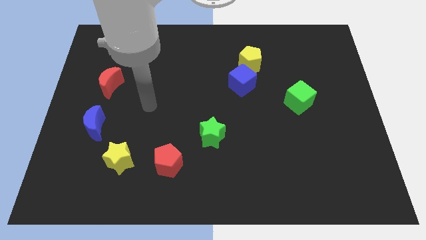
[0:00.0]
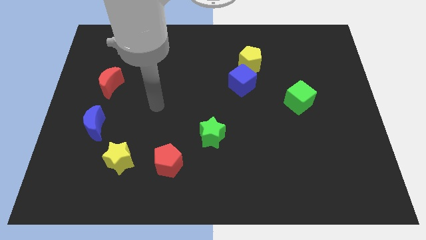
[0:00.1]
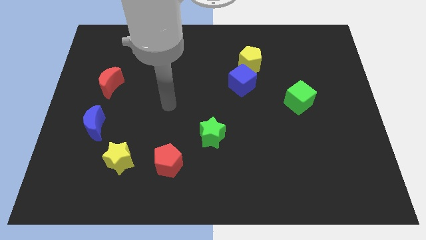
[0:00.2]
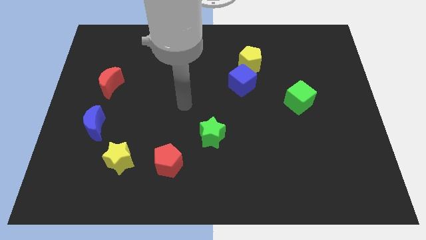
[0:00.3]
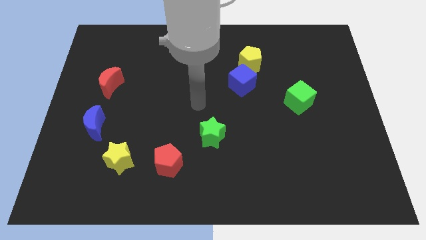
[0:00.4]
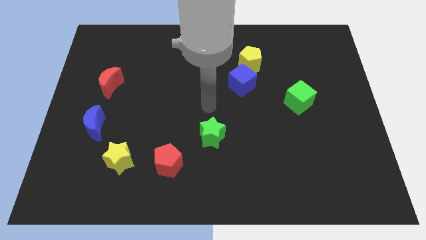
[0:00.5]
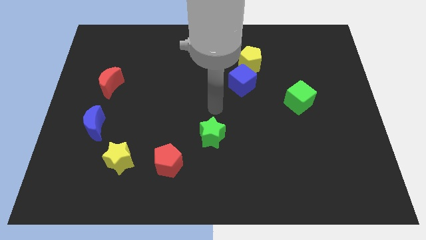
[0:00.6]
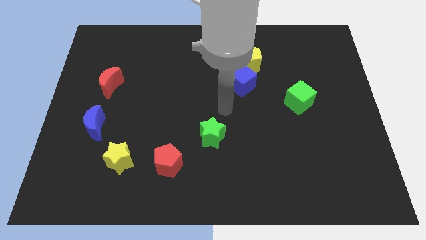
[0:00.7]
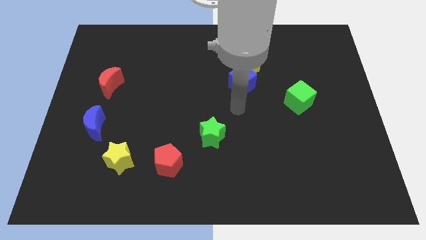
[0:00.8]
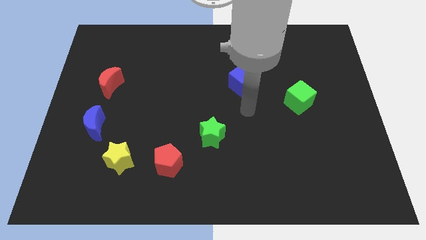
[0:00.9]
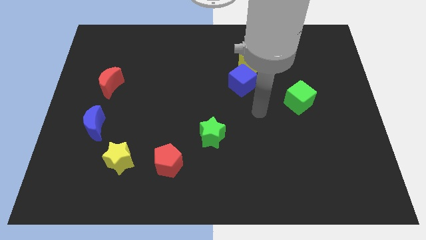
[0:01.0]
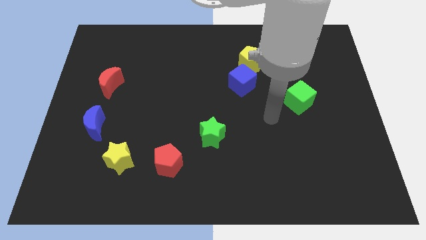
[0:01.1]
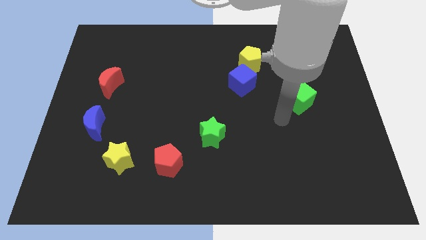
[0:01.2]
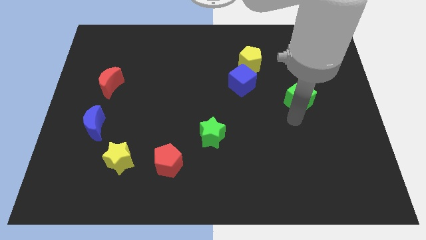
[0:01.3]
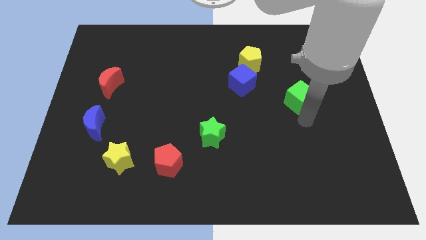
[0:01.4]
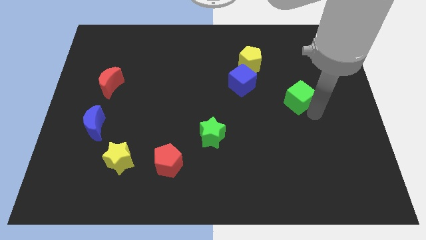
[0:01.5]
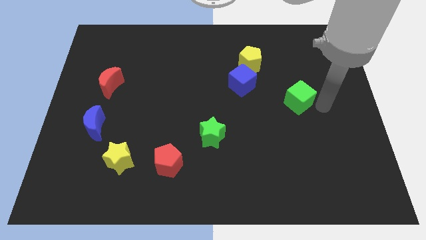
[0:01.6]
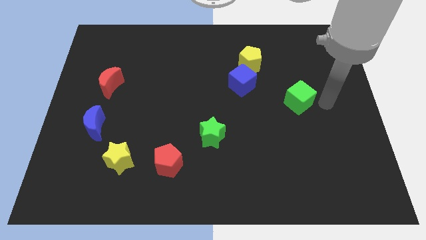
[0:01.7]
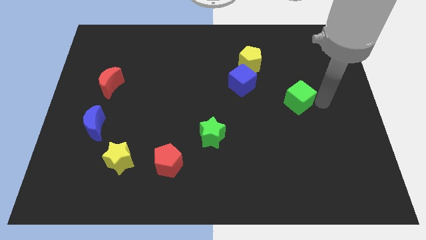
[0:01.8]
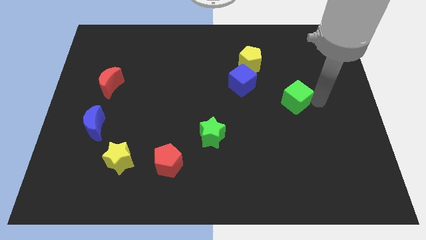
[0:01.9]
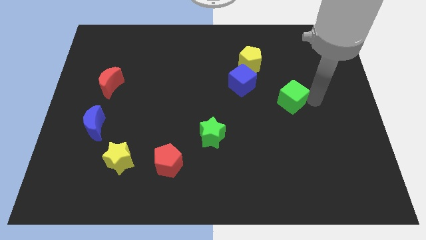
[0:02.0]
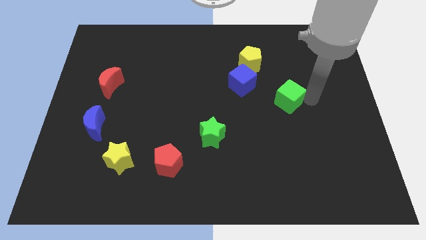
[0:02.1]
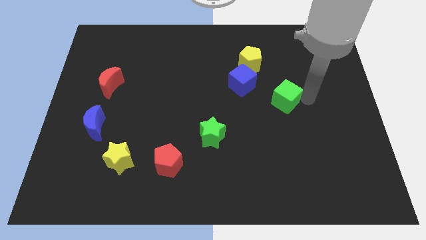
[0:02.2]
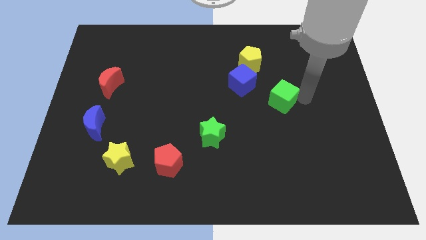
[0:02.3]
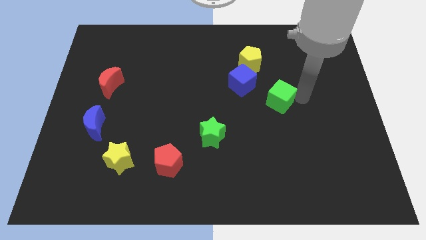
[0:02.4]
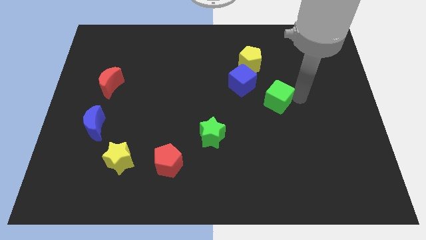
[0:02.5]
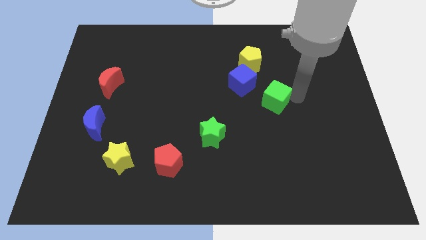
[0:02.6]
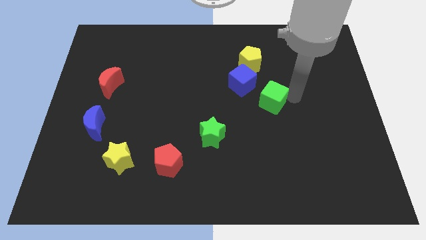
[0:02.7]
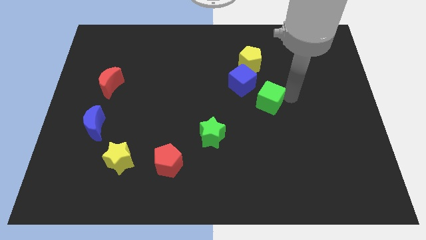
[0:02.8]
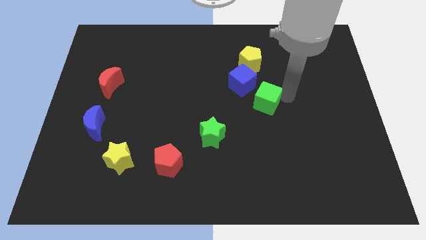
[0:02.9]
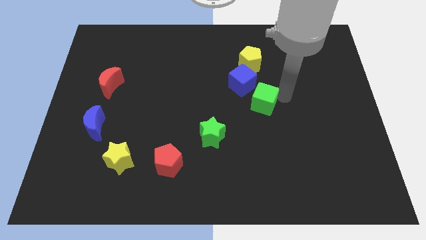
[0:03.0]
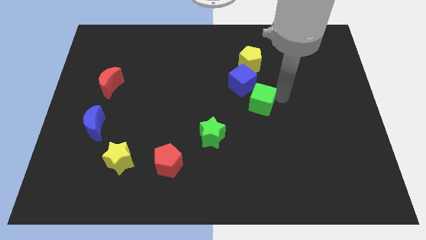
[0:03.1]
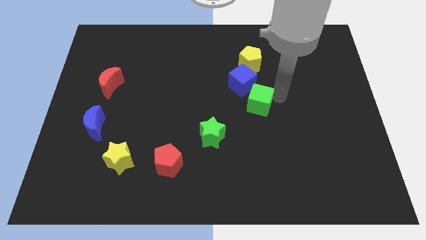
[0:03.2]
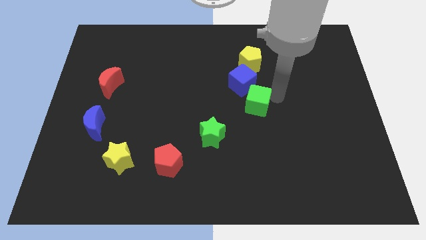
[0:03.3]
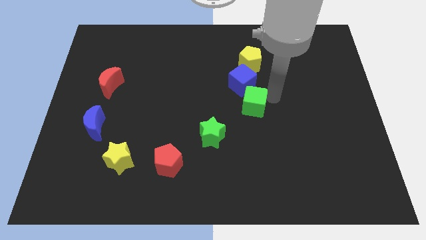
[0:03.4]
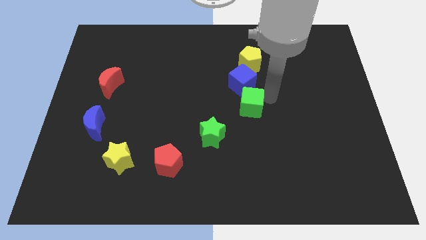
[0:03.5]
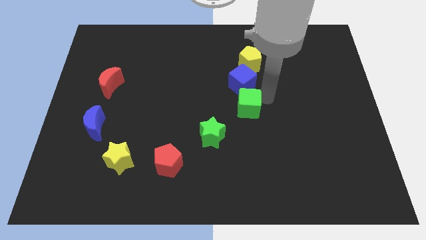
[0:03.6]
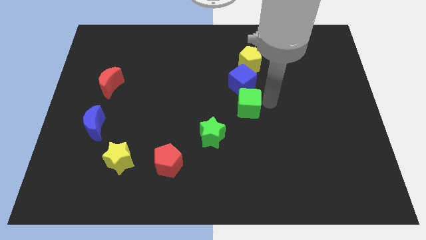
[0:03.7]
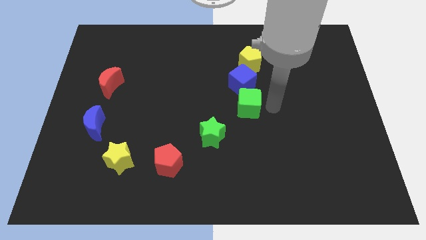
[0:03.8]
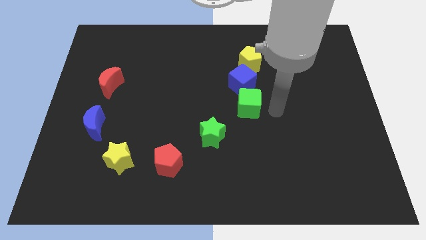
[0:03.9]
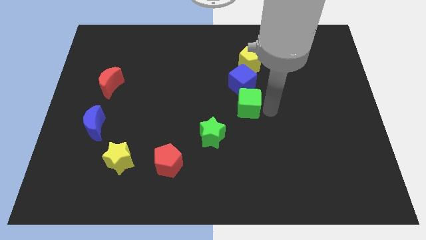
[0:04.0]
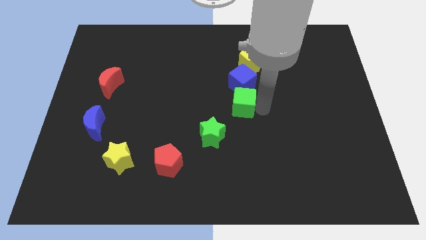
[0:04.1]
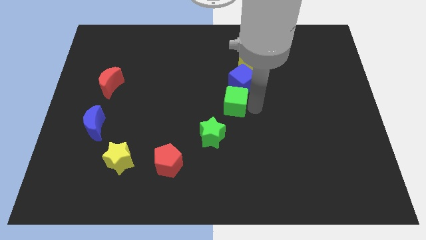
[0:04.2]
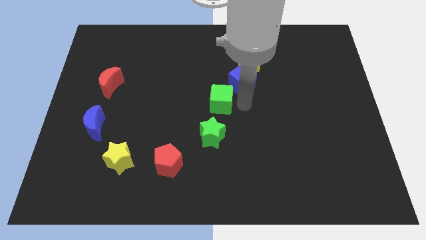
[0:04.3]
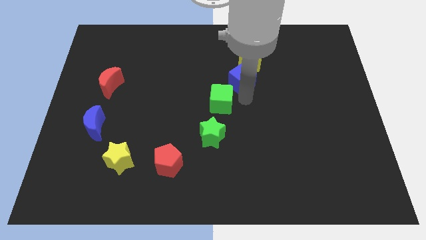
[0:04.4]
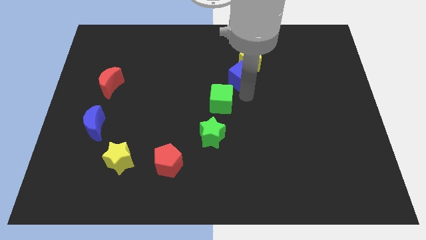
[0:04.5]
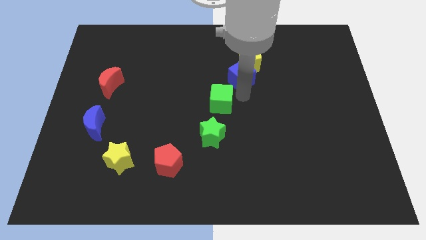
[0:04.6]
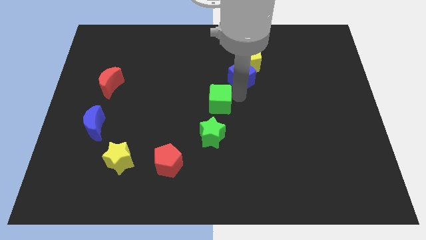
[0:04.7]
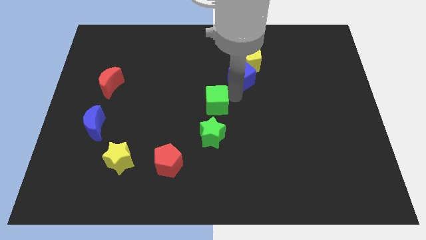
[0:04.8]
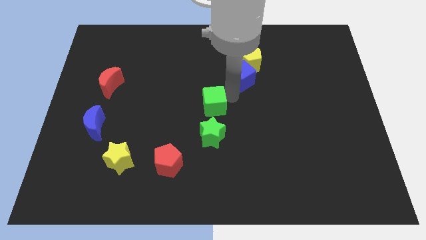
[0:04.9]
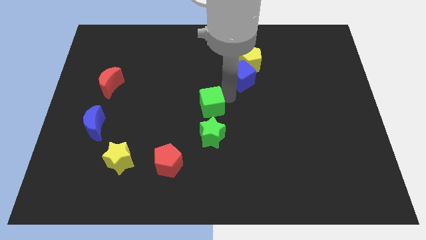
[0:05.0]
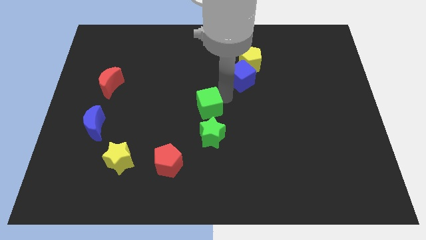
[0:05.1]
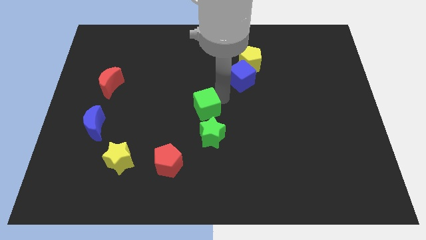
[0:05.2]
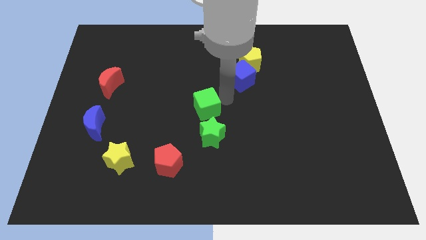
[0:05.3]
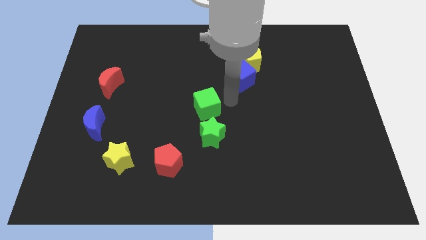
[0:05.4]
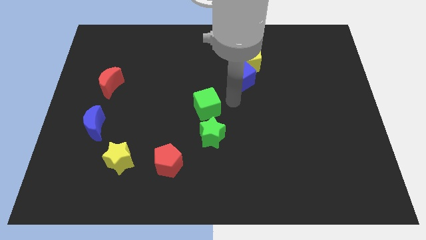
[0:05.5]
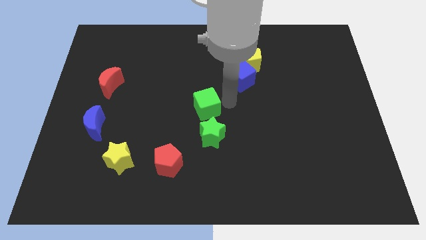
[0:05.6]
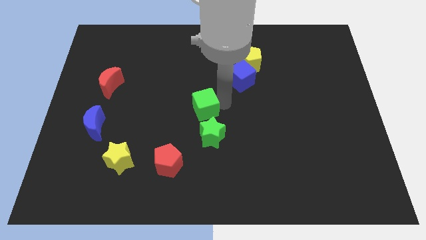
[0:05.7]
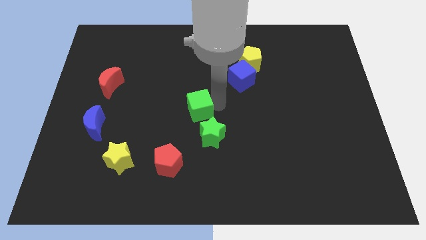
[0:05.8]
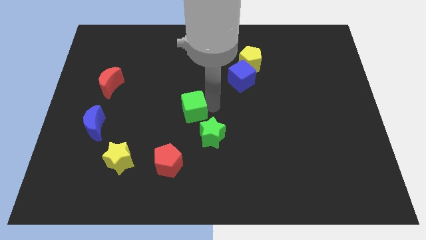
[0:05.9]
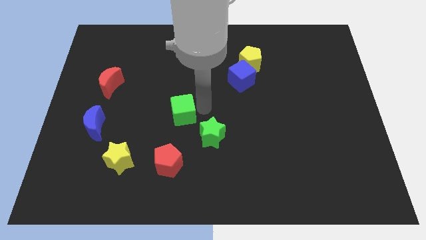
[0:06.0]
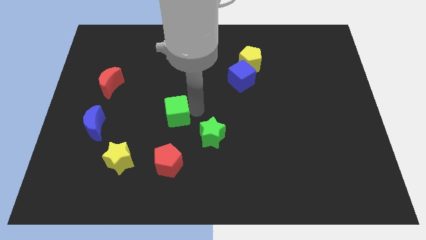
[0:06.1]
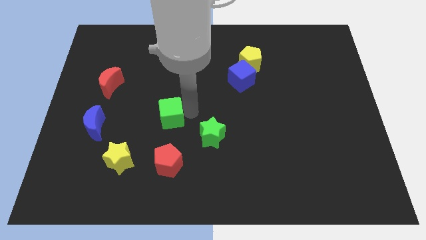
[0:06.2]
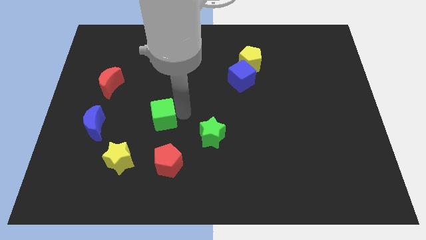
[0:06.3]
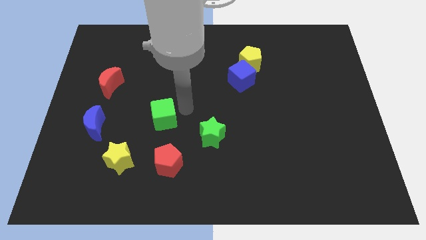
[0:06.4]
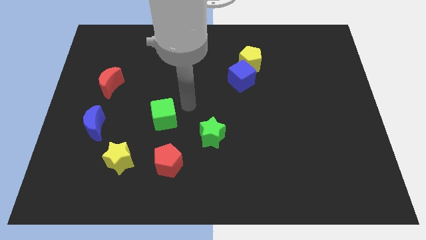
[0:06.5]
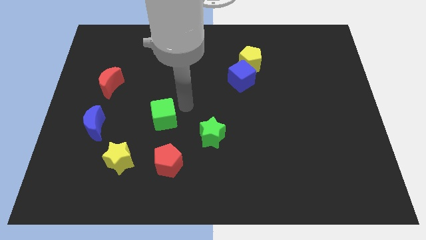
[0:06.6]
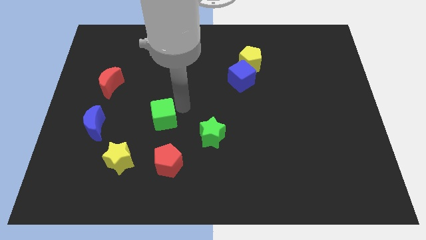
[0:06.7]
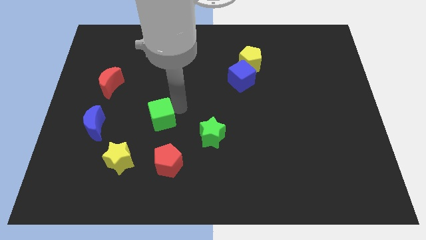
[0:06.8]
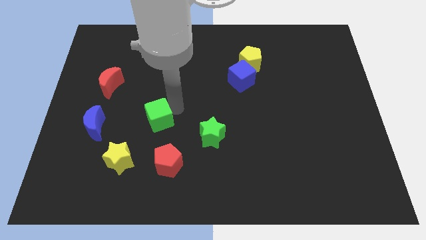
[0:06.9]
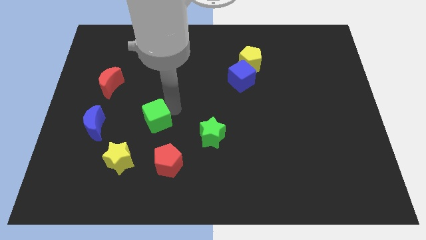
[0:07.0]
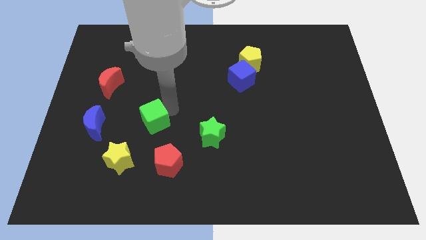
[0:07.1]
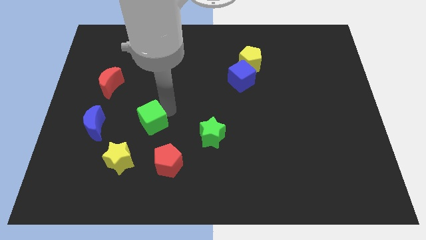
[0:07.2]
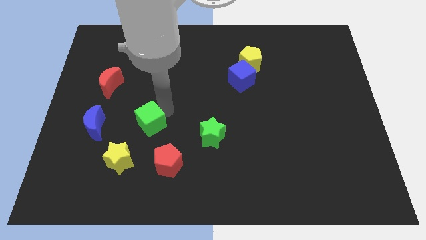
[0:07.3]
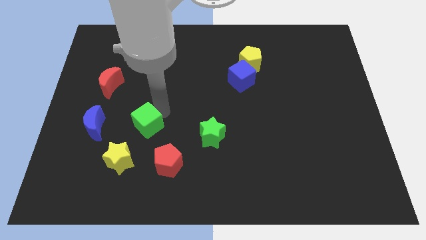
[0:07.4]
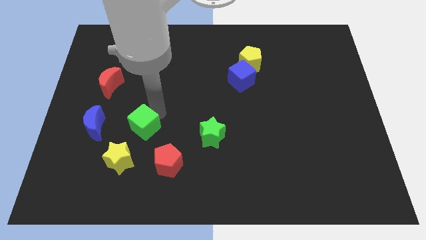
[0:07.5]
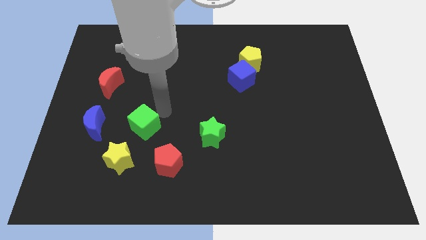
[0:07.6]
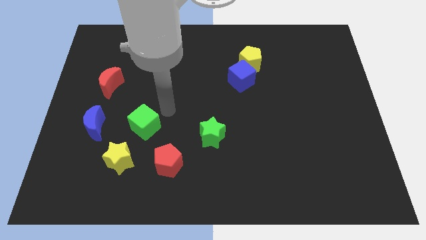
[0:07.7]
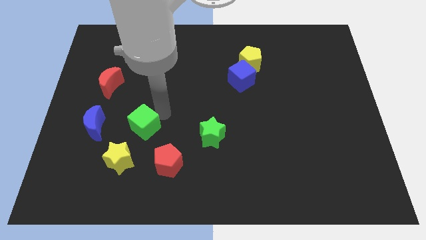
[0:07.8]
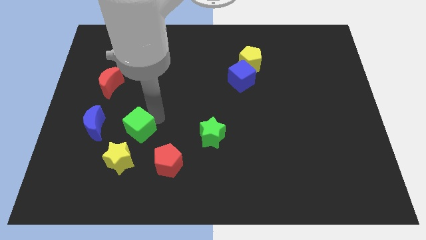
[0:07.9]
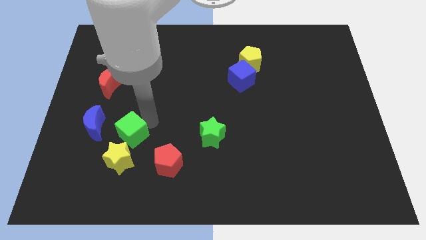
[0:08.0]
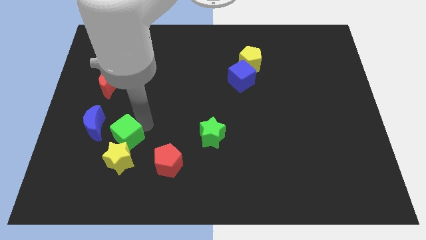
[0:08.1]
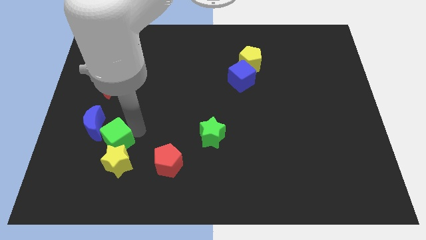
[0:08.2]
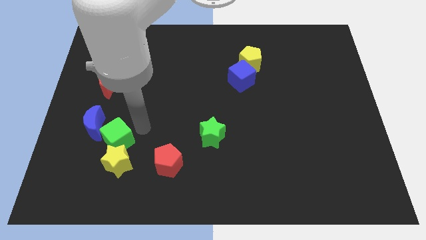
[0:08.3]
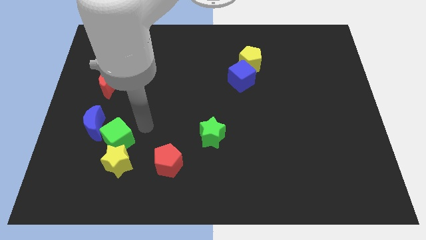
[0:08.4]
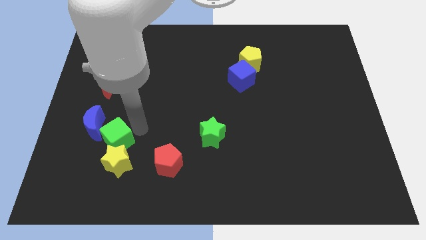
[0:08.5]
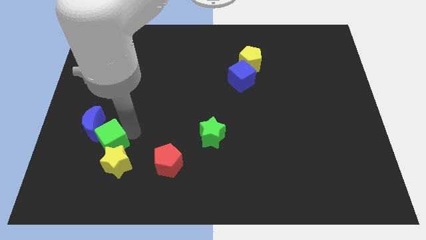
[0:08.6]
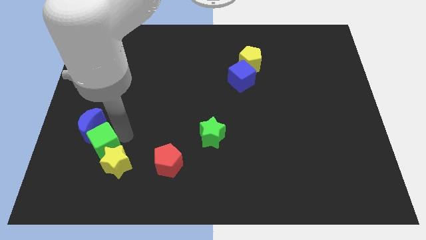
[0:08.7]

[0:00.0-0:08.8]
move the green cube below the blue moon
